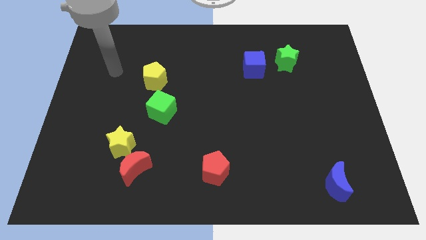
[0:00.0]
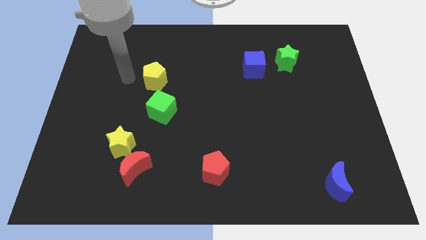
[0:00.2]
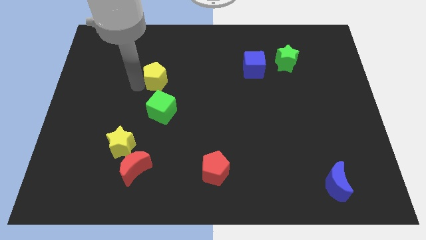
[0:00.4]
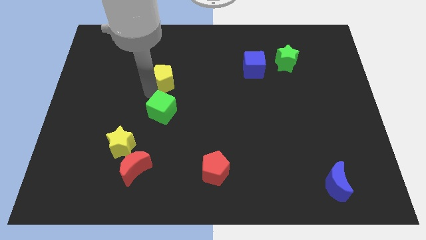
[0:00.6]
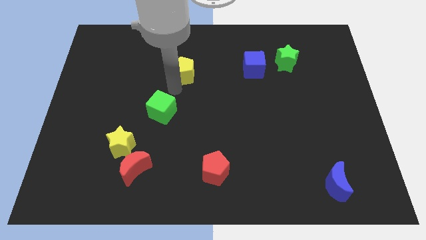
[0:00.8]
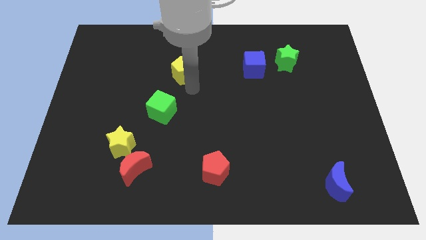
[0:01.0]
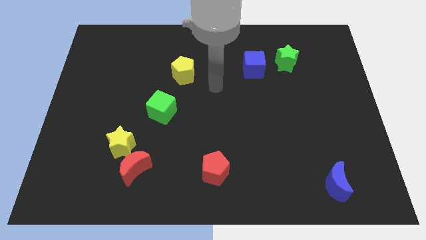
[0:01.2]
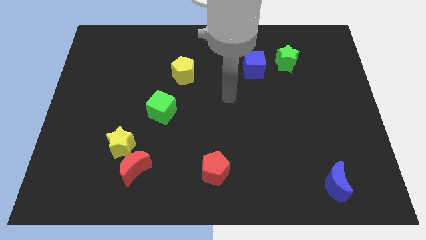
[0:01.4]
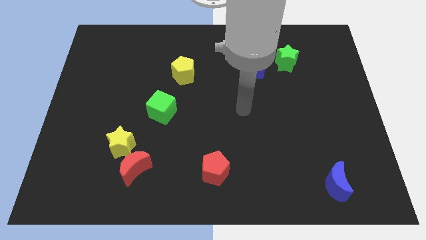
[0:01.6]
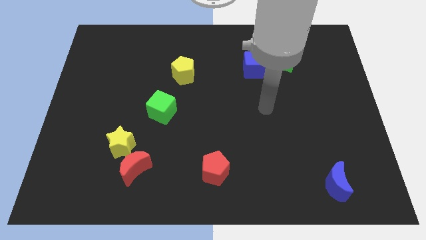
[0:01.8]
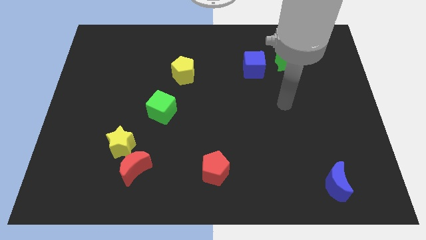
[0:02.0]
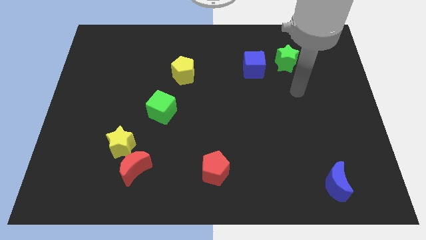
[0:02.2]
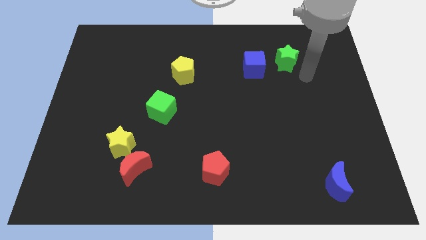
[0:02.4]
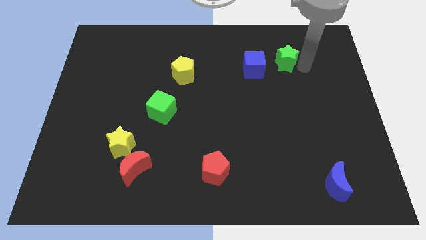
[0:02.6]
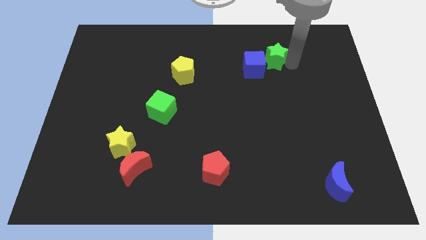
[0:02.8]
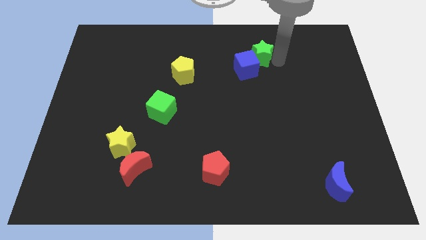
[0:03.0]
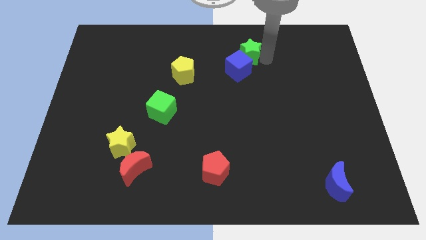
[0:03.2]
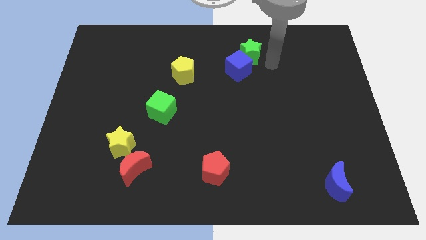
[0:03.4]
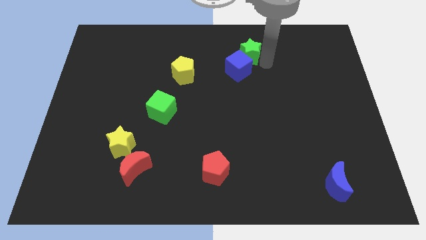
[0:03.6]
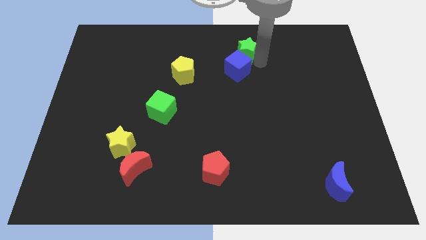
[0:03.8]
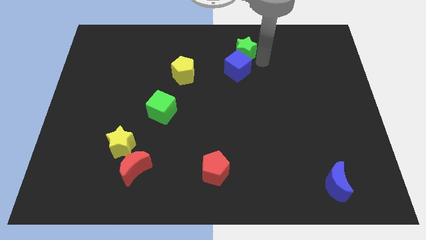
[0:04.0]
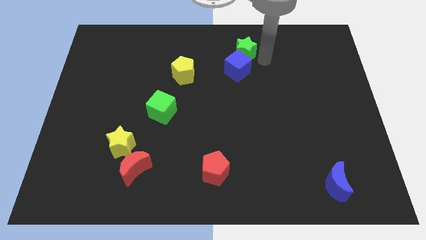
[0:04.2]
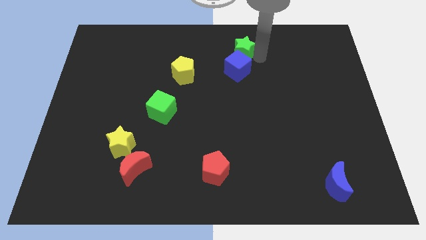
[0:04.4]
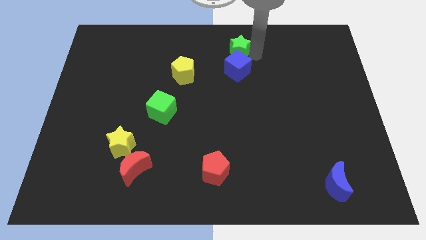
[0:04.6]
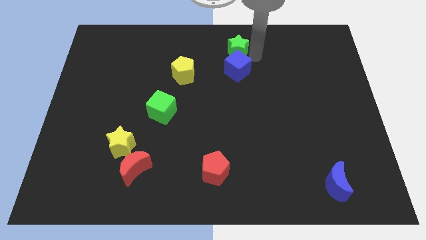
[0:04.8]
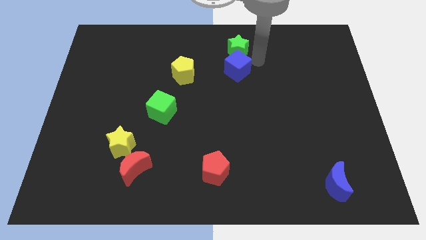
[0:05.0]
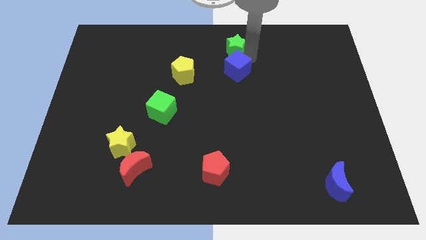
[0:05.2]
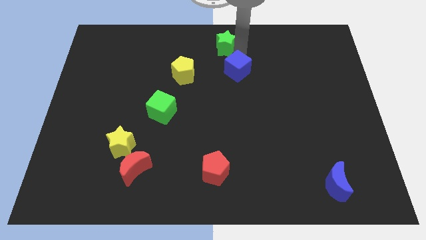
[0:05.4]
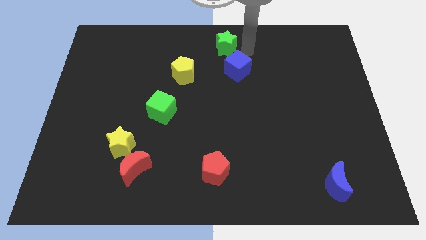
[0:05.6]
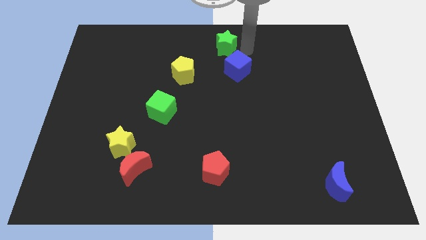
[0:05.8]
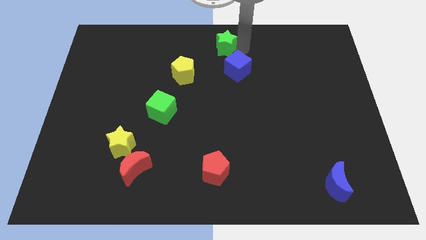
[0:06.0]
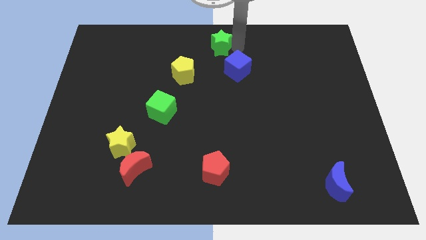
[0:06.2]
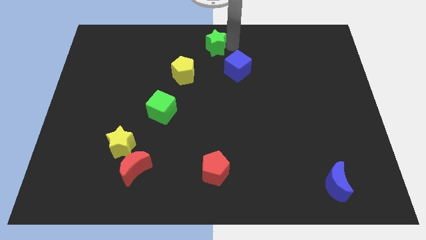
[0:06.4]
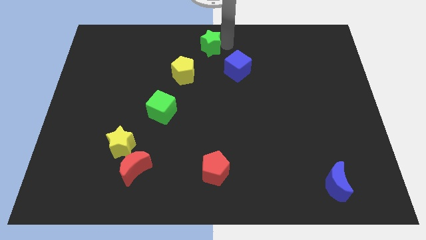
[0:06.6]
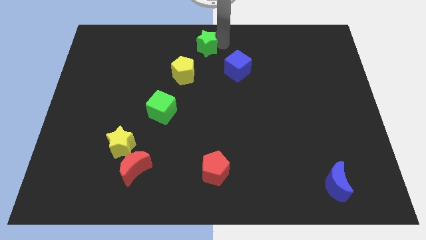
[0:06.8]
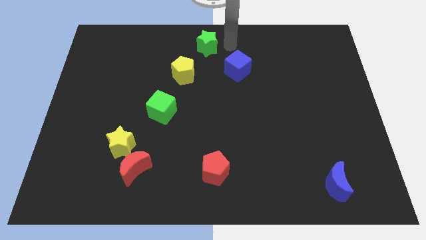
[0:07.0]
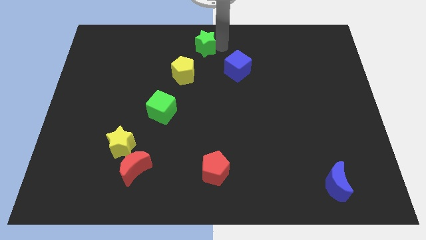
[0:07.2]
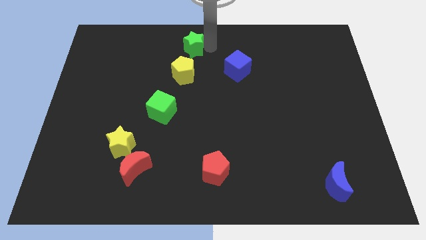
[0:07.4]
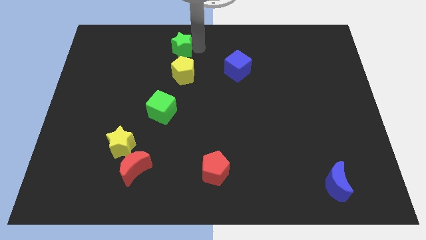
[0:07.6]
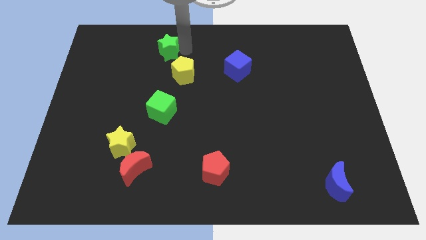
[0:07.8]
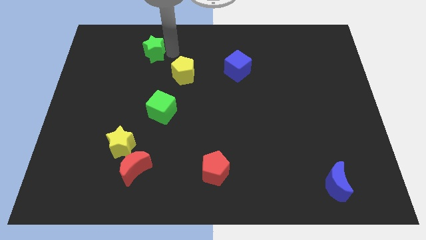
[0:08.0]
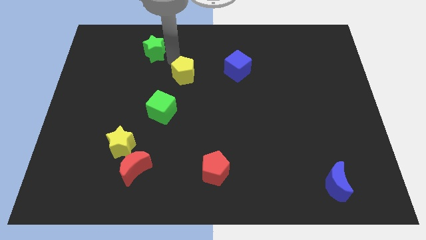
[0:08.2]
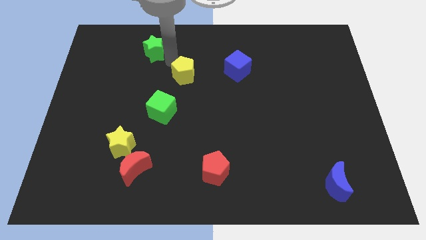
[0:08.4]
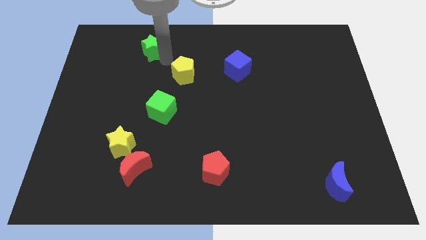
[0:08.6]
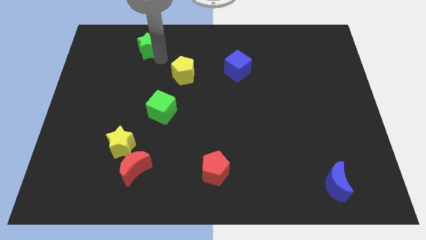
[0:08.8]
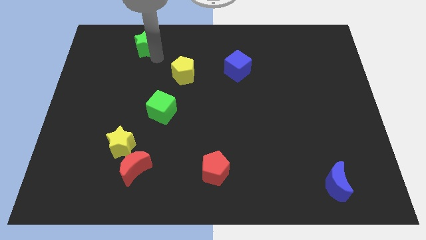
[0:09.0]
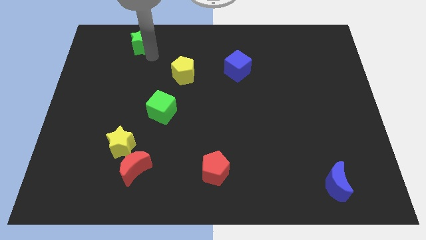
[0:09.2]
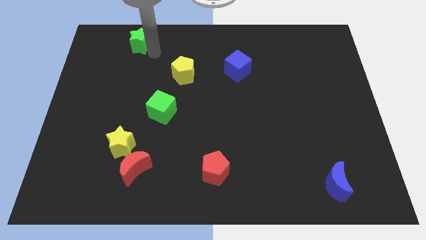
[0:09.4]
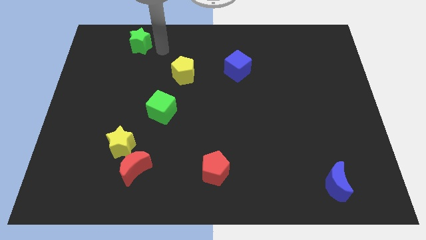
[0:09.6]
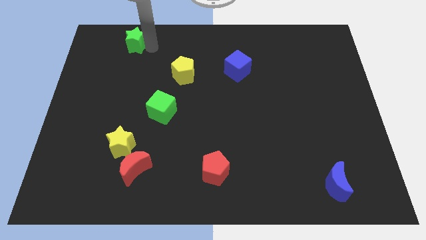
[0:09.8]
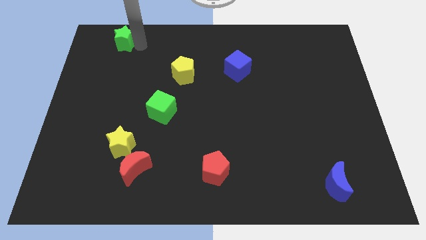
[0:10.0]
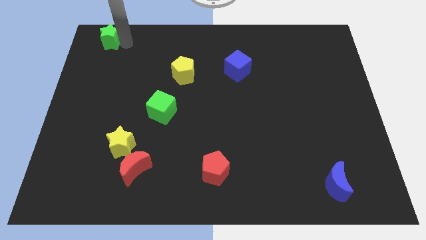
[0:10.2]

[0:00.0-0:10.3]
push the green star to the upper left corner

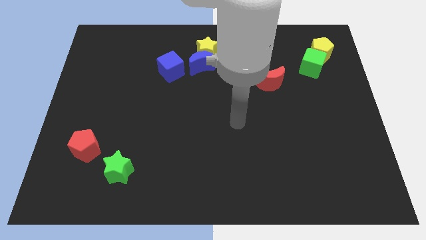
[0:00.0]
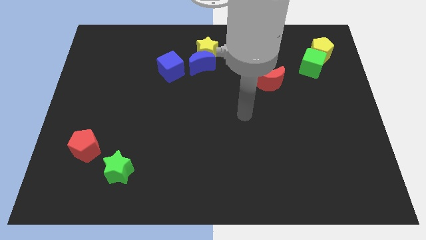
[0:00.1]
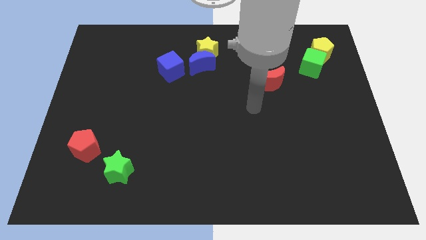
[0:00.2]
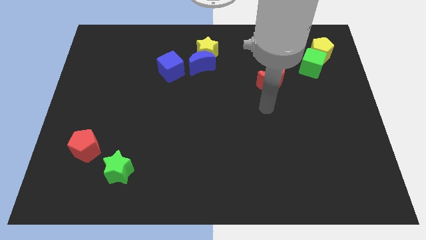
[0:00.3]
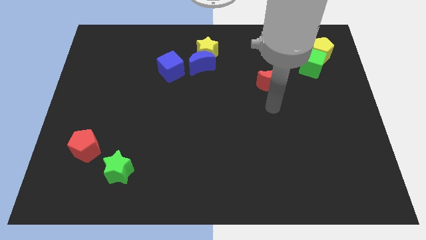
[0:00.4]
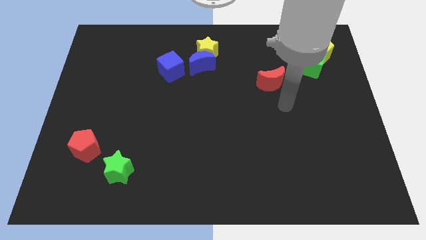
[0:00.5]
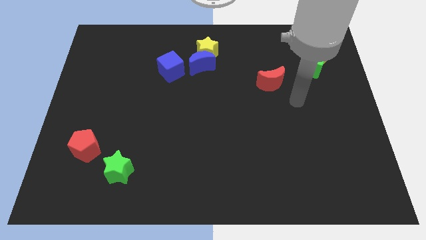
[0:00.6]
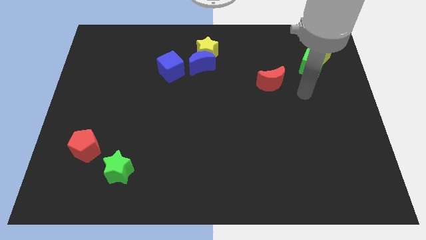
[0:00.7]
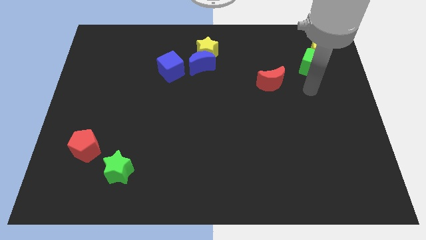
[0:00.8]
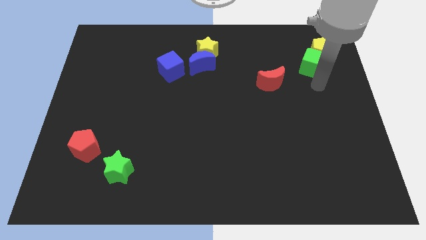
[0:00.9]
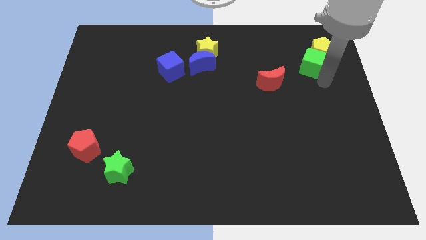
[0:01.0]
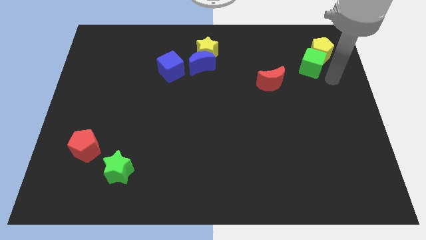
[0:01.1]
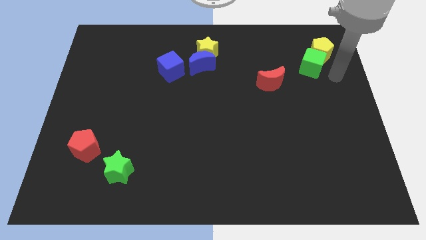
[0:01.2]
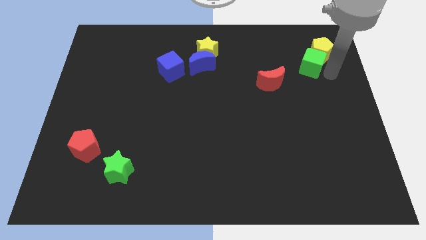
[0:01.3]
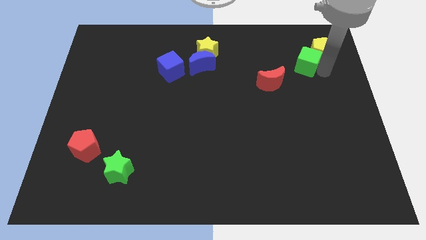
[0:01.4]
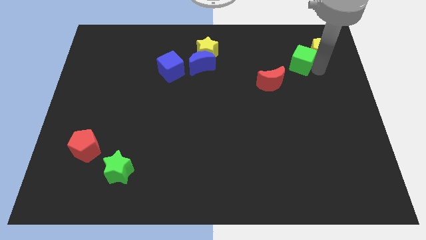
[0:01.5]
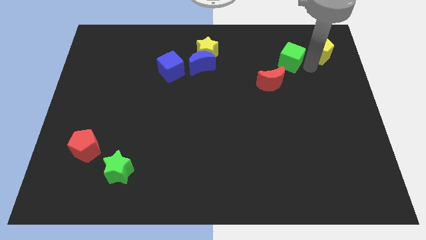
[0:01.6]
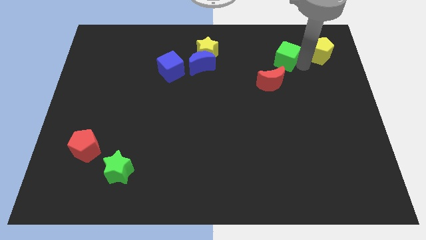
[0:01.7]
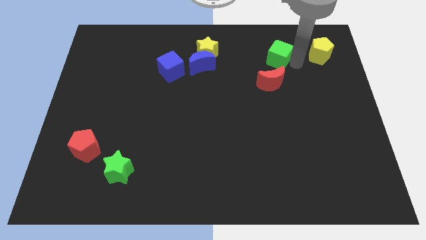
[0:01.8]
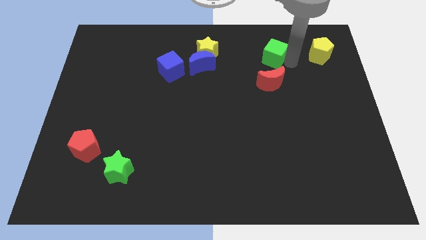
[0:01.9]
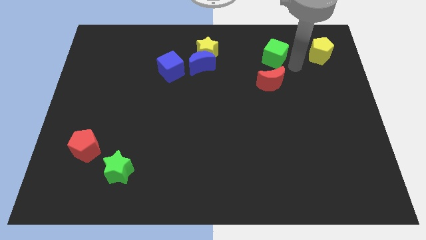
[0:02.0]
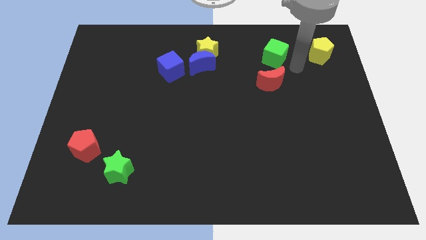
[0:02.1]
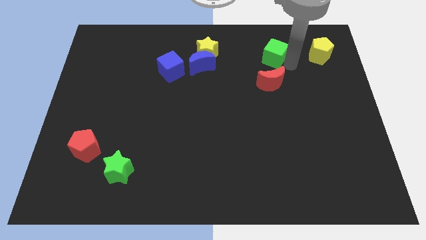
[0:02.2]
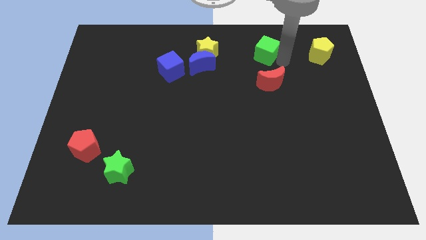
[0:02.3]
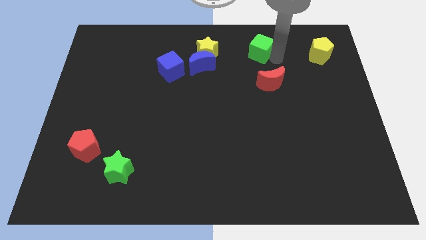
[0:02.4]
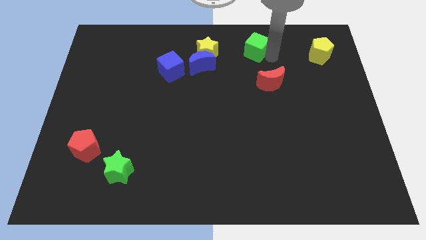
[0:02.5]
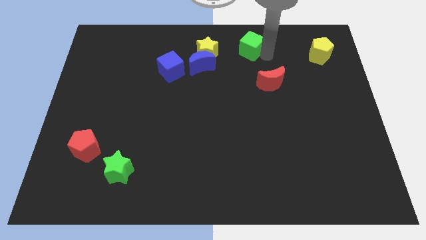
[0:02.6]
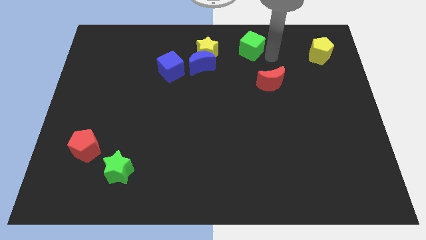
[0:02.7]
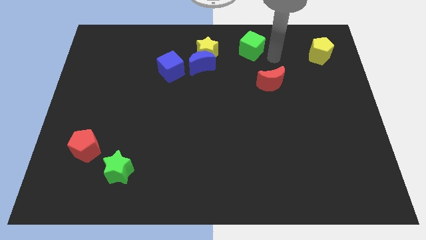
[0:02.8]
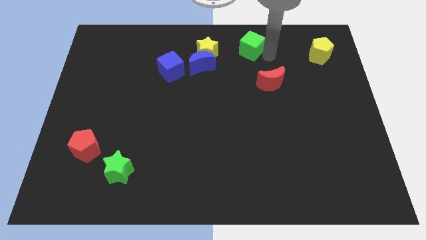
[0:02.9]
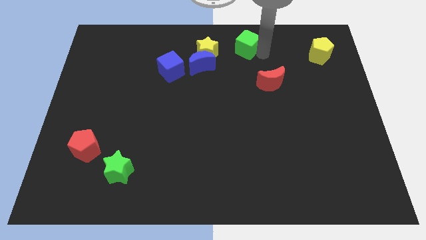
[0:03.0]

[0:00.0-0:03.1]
push the green cube to the top side
